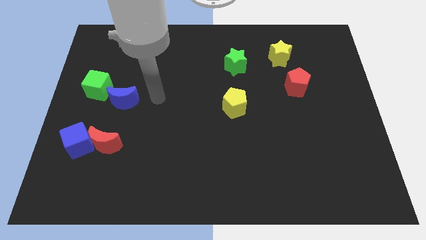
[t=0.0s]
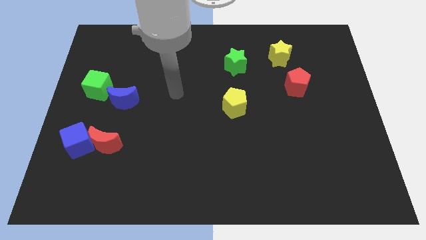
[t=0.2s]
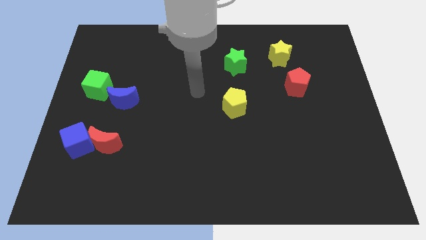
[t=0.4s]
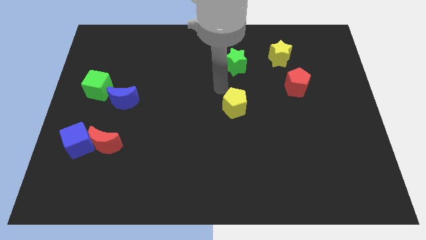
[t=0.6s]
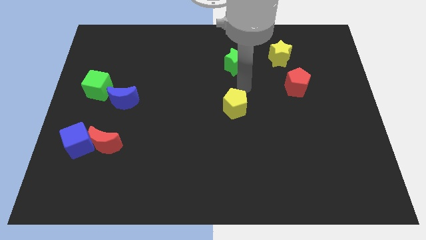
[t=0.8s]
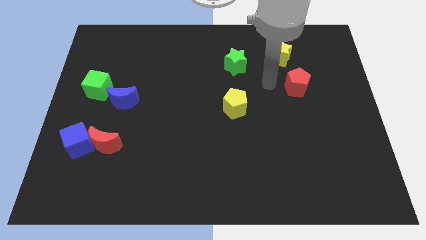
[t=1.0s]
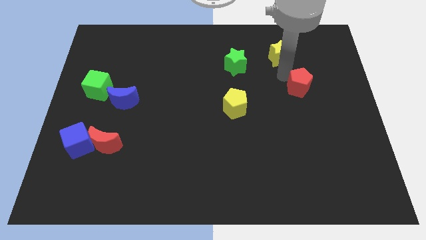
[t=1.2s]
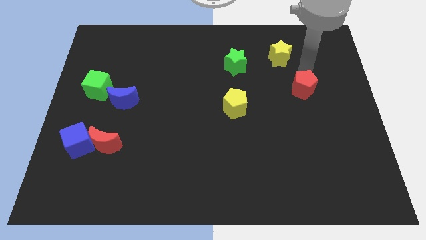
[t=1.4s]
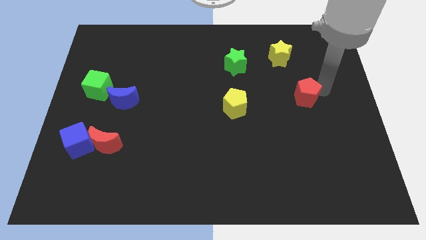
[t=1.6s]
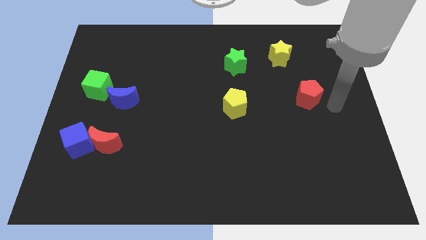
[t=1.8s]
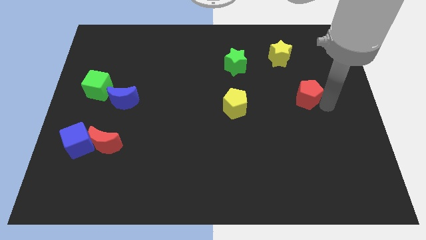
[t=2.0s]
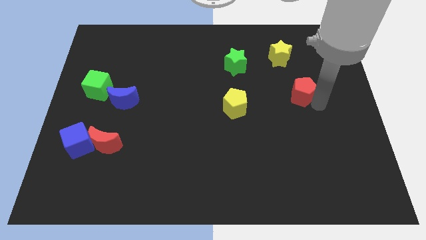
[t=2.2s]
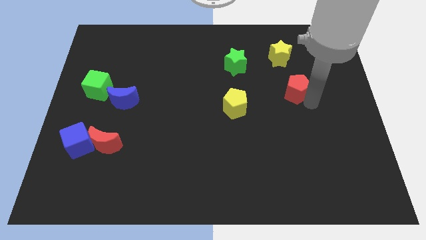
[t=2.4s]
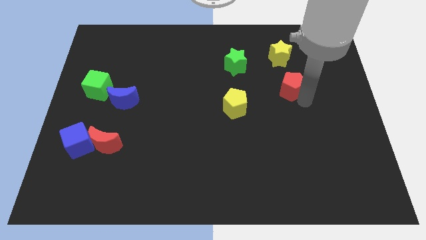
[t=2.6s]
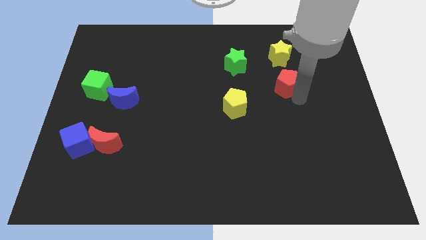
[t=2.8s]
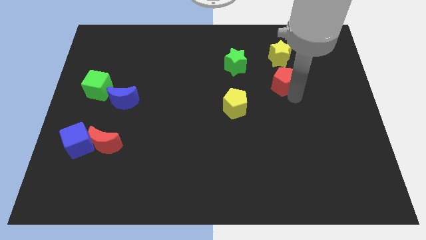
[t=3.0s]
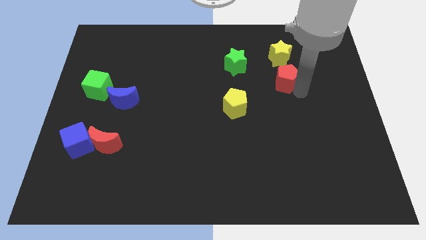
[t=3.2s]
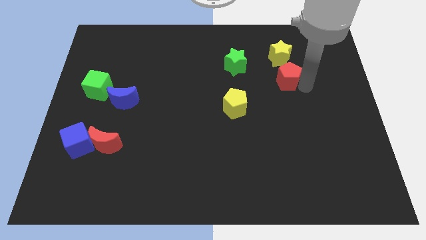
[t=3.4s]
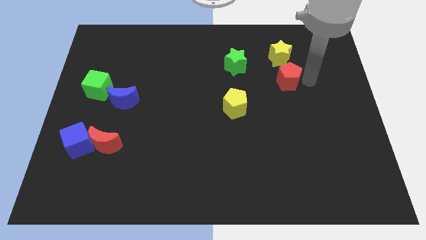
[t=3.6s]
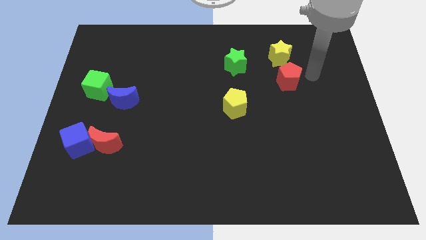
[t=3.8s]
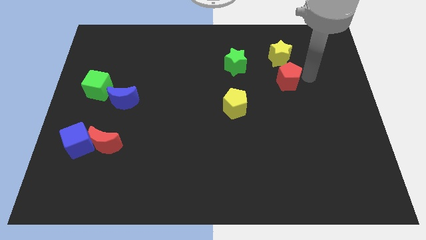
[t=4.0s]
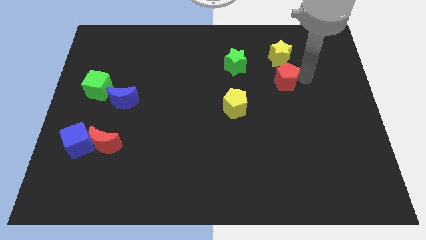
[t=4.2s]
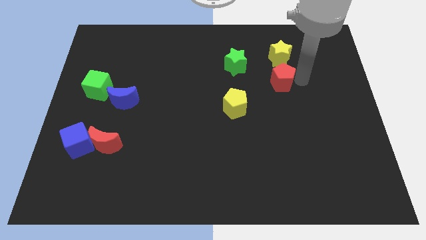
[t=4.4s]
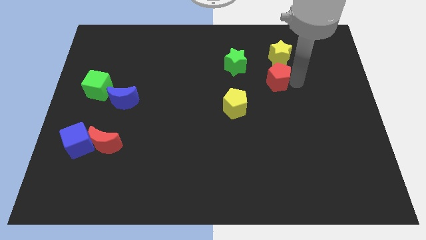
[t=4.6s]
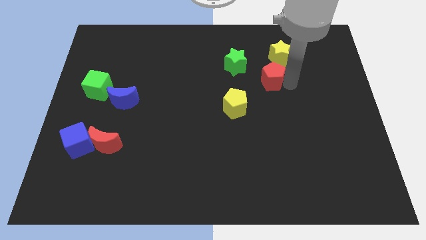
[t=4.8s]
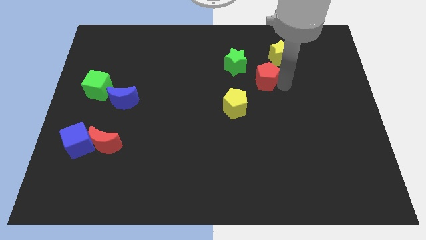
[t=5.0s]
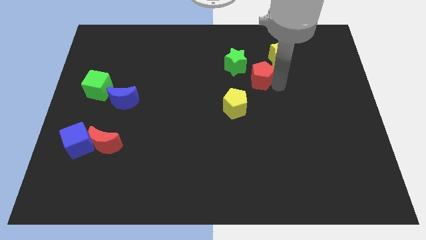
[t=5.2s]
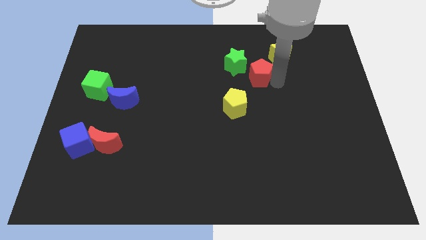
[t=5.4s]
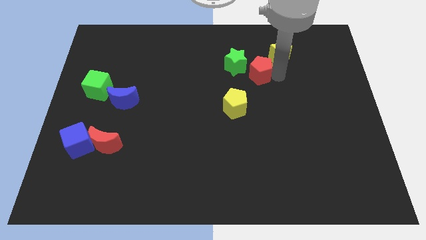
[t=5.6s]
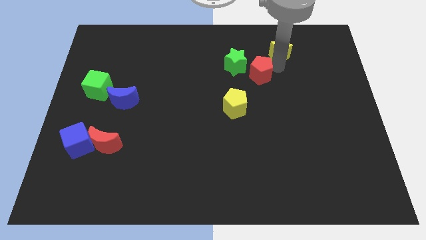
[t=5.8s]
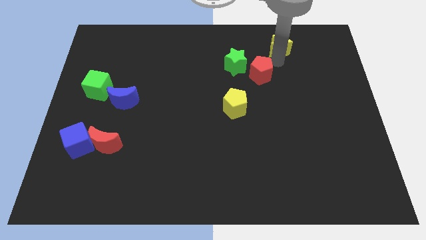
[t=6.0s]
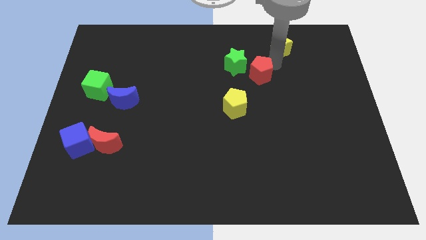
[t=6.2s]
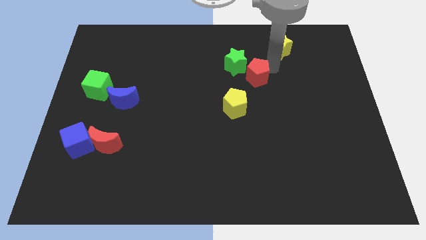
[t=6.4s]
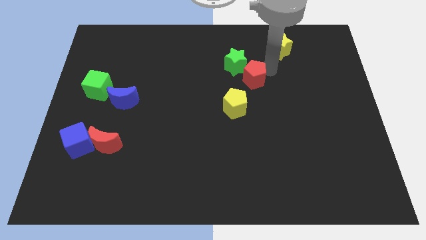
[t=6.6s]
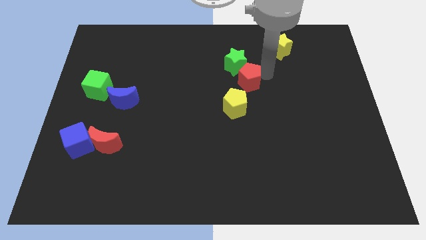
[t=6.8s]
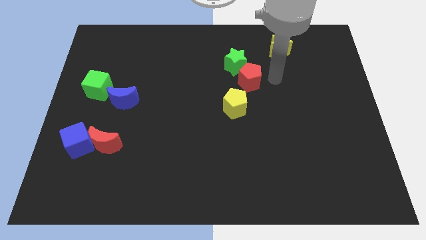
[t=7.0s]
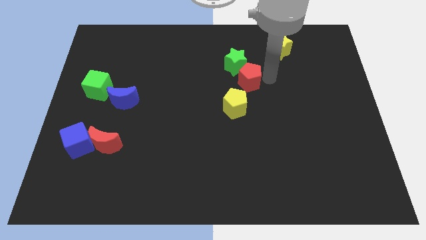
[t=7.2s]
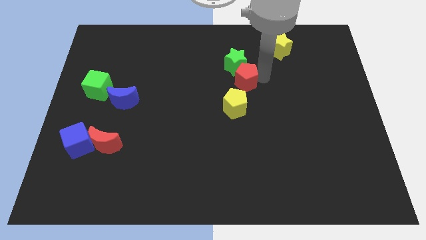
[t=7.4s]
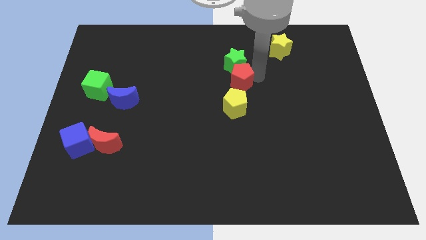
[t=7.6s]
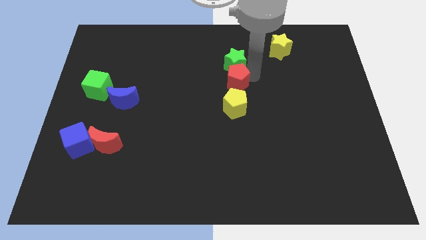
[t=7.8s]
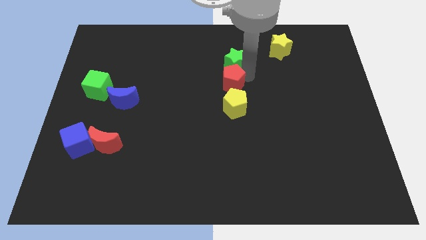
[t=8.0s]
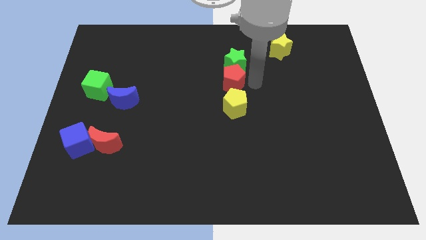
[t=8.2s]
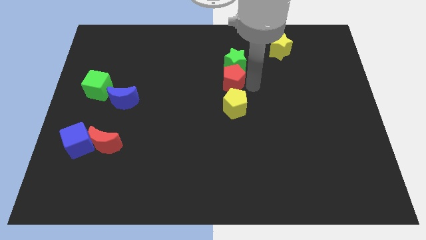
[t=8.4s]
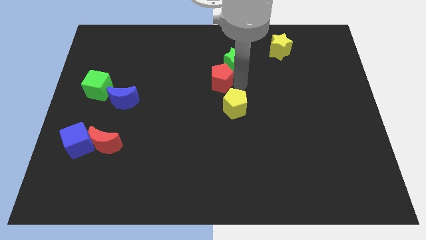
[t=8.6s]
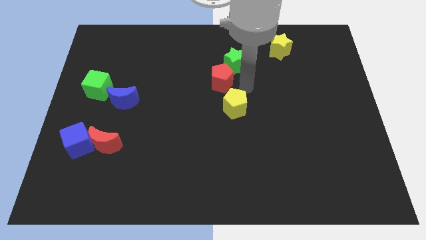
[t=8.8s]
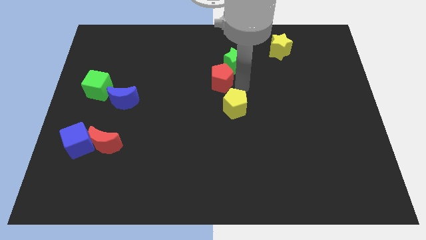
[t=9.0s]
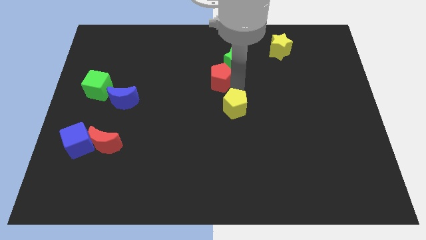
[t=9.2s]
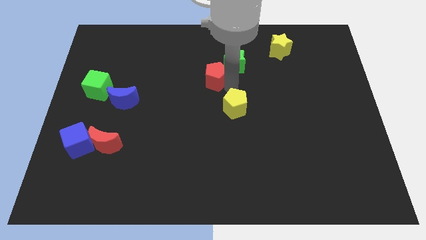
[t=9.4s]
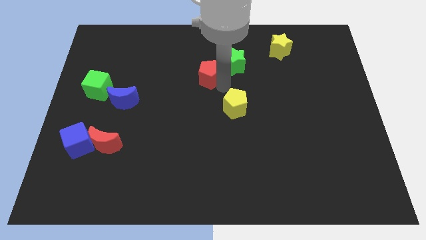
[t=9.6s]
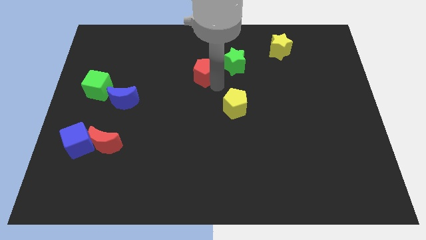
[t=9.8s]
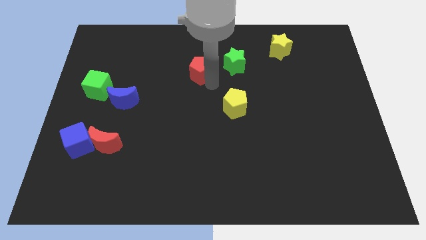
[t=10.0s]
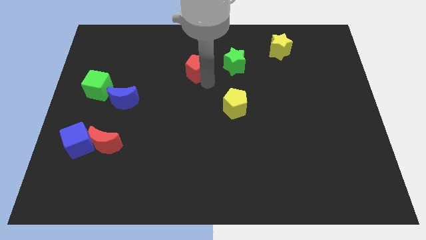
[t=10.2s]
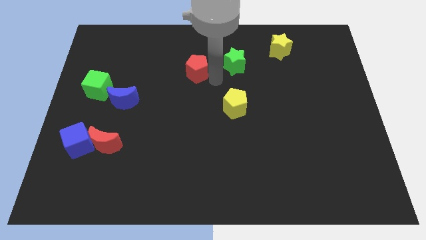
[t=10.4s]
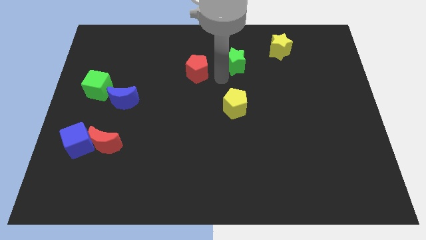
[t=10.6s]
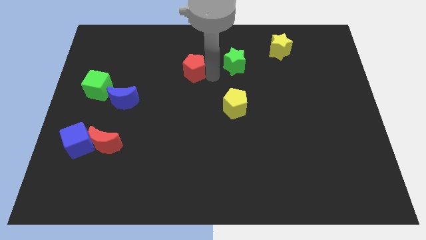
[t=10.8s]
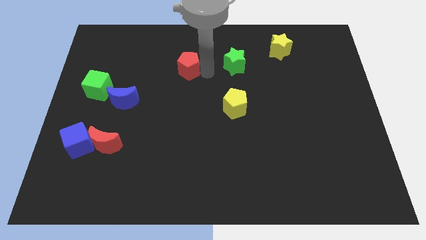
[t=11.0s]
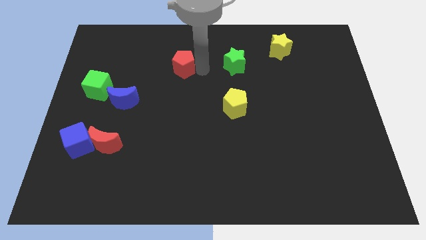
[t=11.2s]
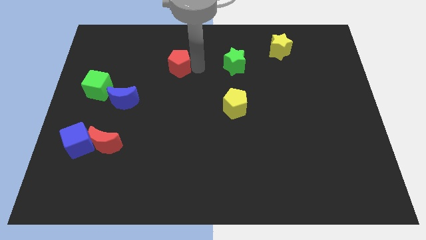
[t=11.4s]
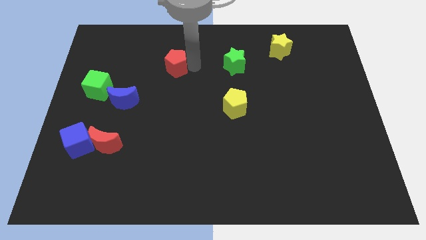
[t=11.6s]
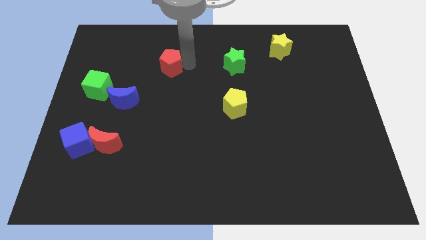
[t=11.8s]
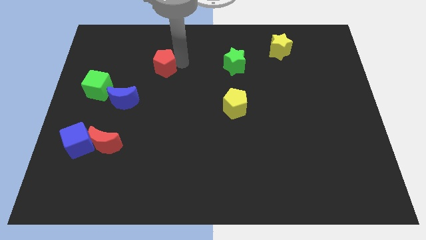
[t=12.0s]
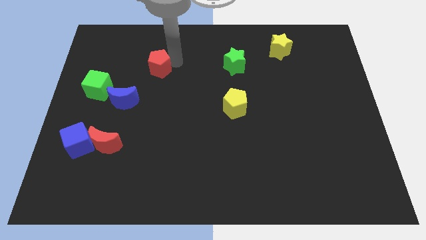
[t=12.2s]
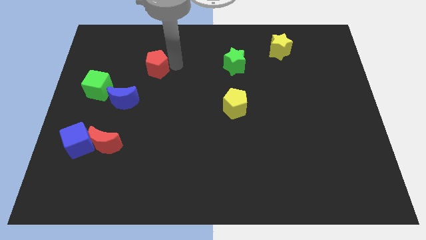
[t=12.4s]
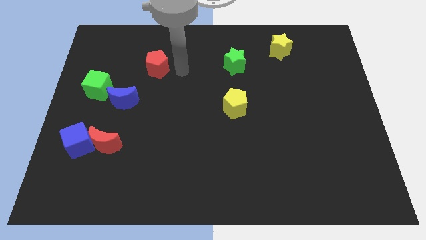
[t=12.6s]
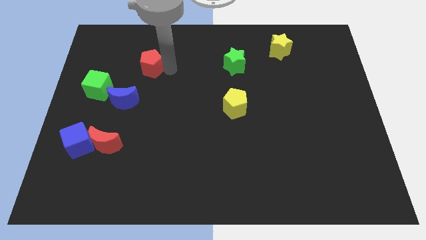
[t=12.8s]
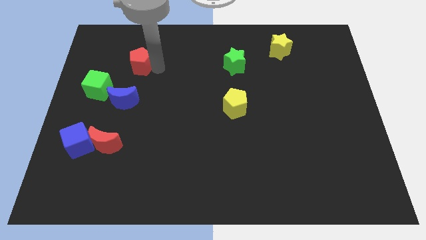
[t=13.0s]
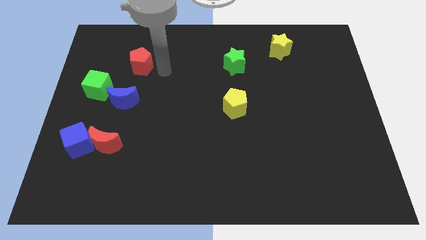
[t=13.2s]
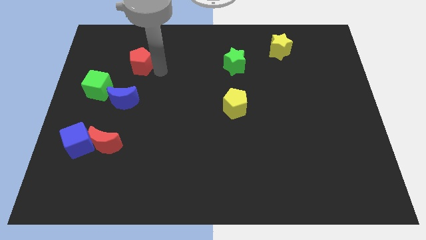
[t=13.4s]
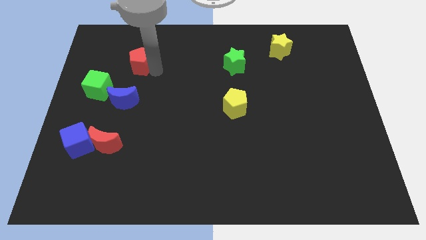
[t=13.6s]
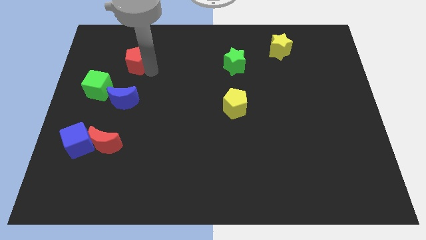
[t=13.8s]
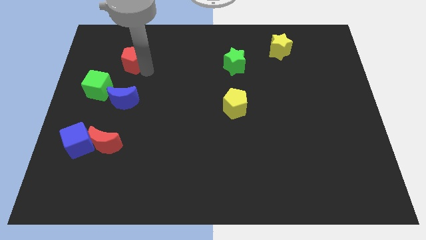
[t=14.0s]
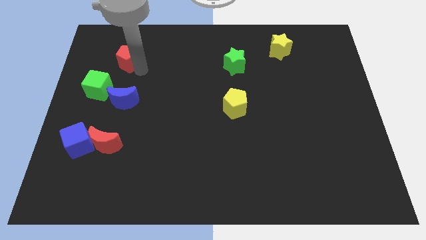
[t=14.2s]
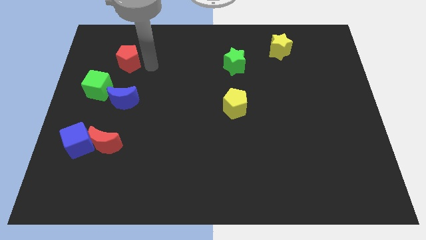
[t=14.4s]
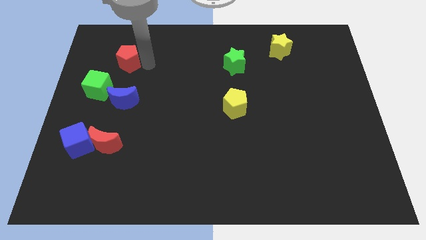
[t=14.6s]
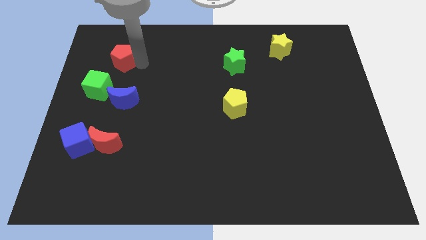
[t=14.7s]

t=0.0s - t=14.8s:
push the red pentagon to the top side of the green cube
